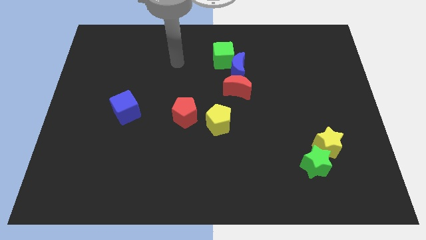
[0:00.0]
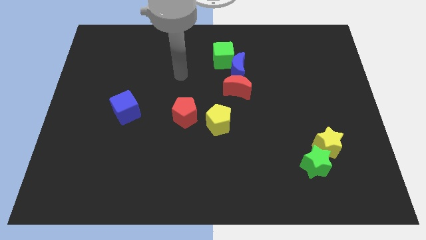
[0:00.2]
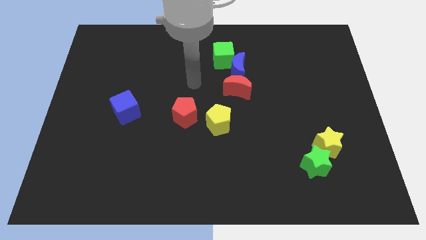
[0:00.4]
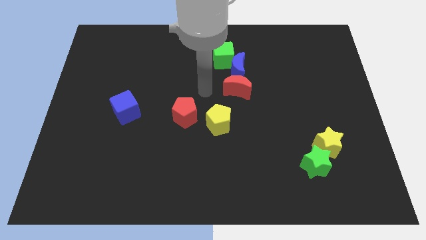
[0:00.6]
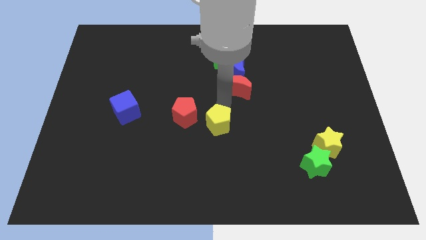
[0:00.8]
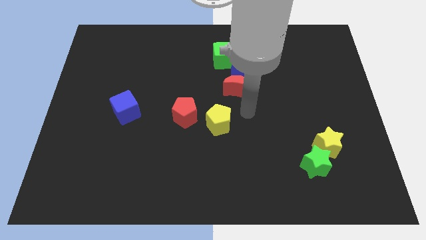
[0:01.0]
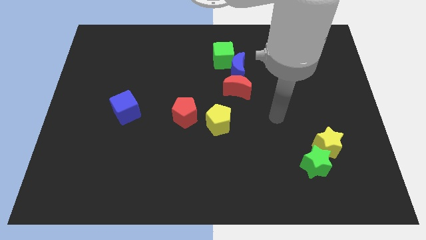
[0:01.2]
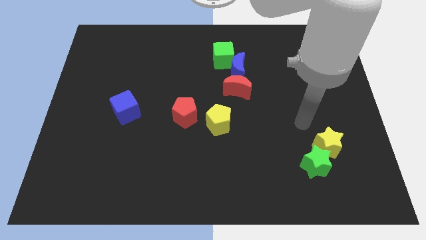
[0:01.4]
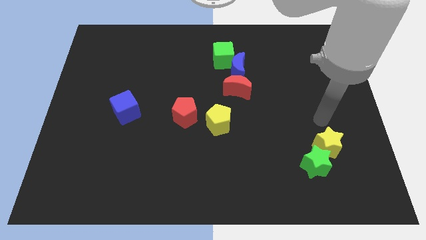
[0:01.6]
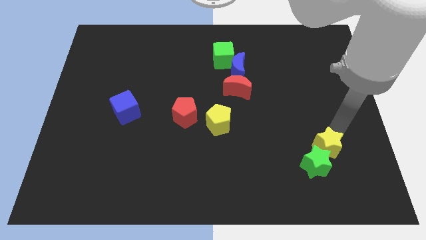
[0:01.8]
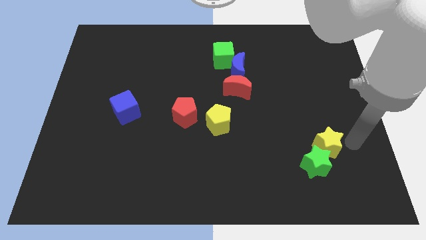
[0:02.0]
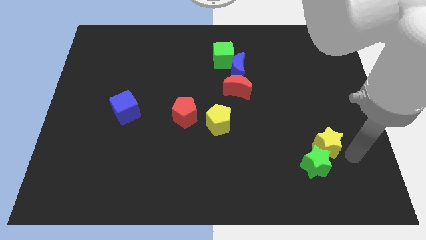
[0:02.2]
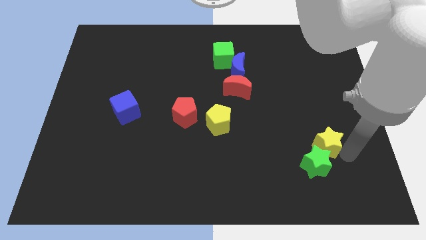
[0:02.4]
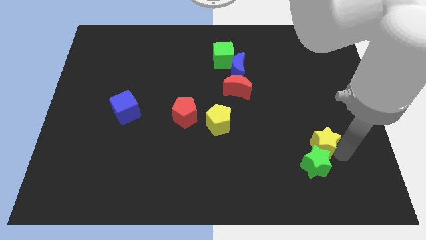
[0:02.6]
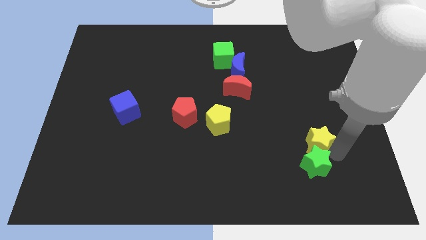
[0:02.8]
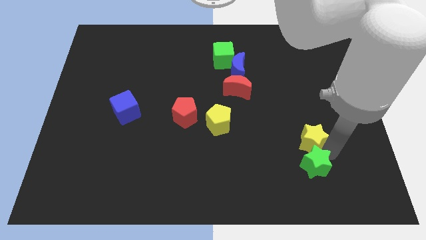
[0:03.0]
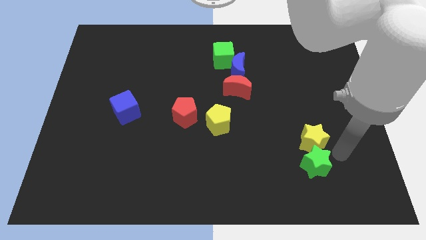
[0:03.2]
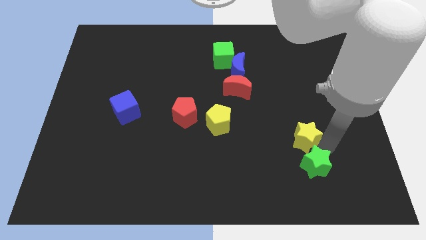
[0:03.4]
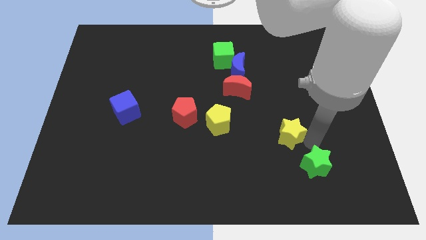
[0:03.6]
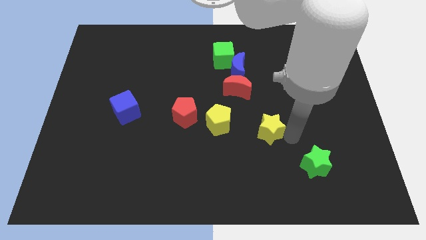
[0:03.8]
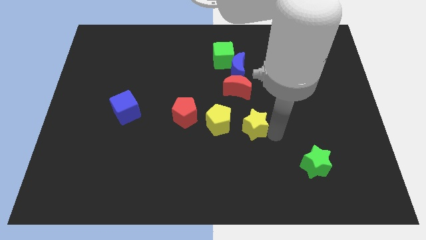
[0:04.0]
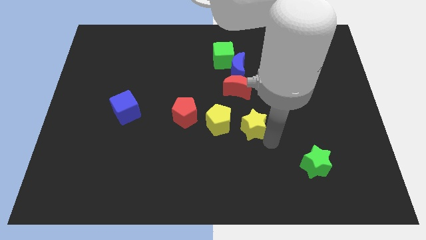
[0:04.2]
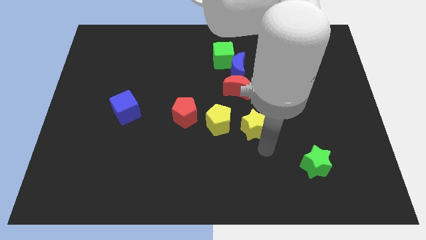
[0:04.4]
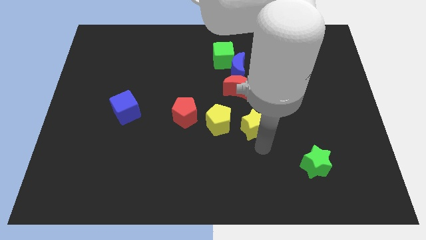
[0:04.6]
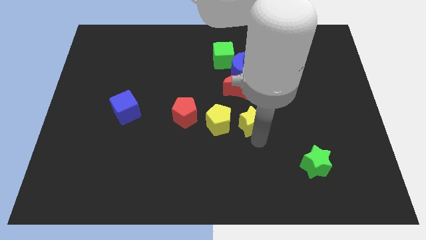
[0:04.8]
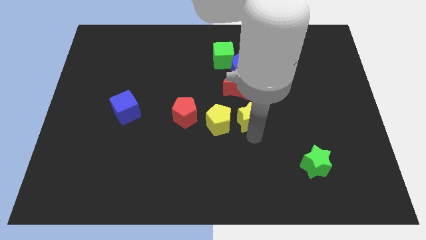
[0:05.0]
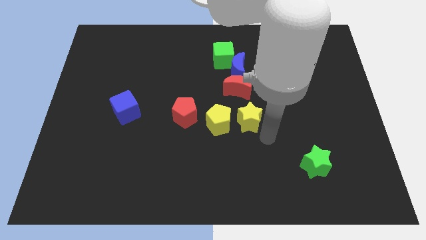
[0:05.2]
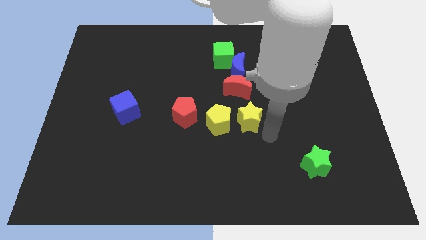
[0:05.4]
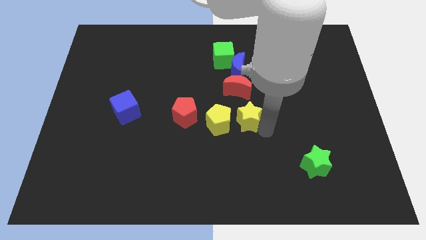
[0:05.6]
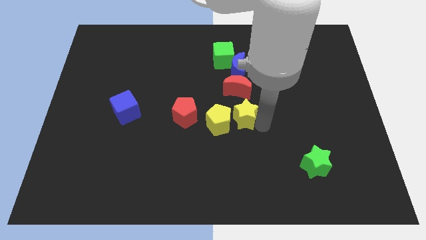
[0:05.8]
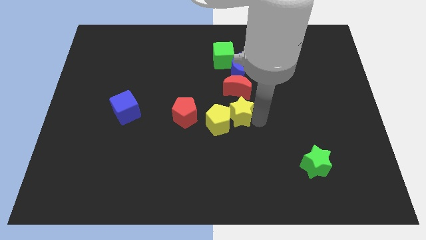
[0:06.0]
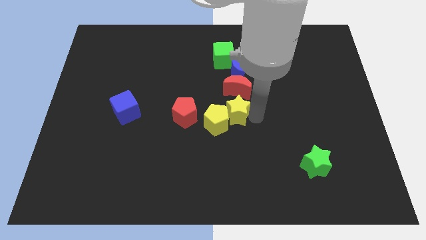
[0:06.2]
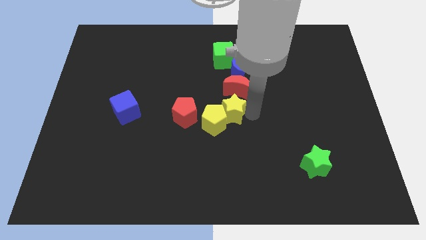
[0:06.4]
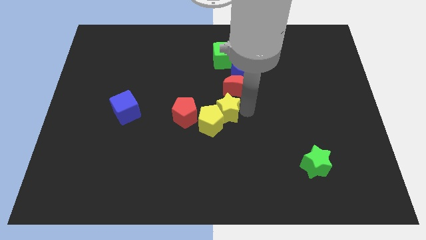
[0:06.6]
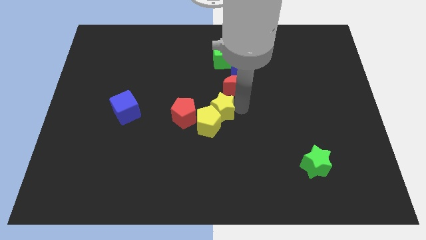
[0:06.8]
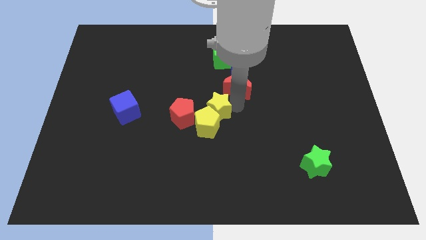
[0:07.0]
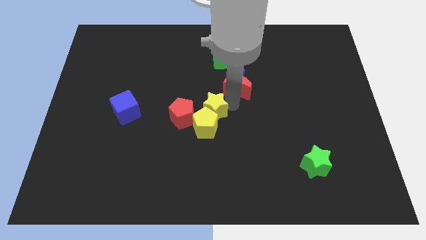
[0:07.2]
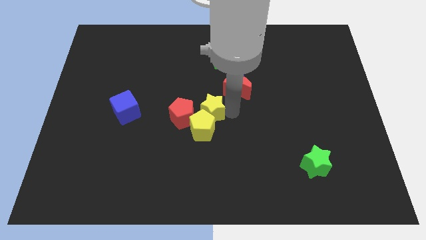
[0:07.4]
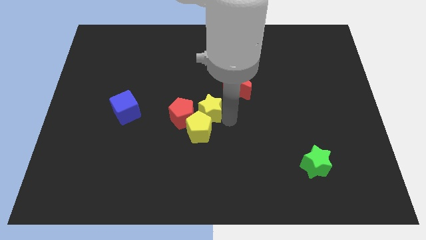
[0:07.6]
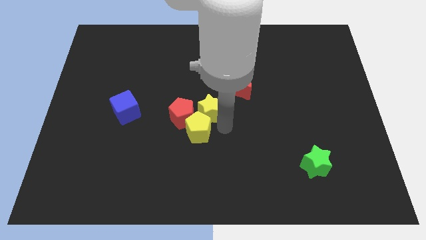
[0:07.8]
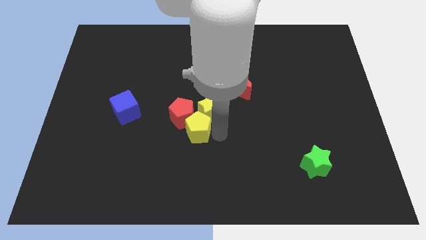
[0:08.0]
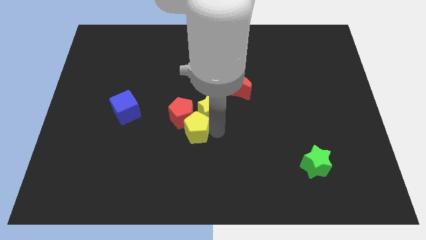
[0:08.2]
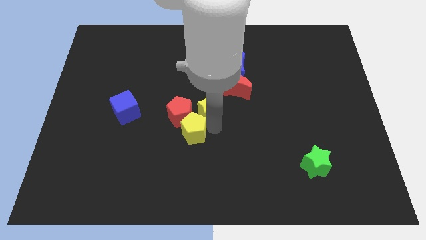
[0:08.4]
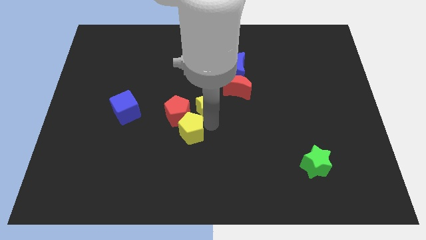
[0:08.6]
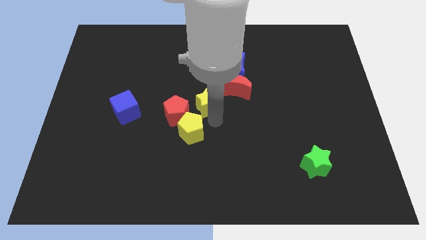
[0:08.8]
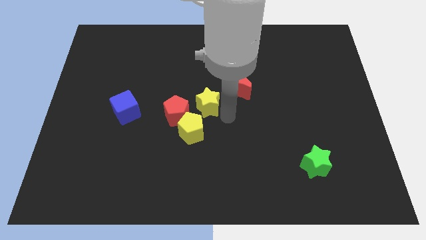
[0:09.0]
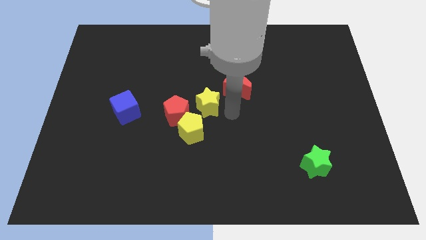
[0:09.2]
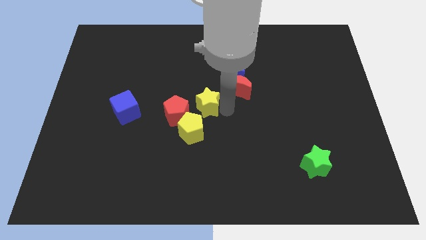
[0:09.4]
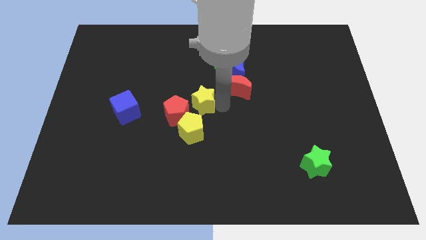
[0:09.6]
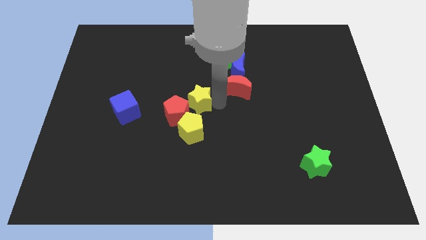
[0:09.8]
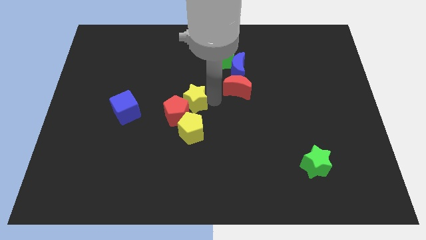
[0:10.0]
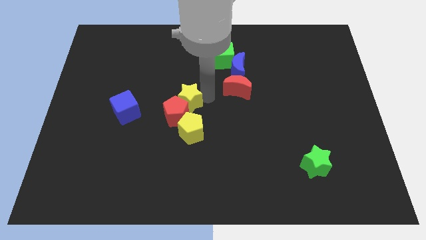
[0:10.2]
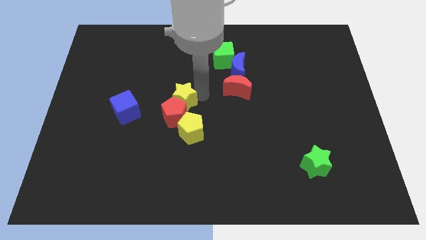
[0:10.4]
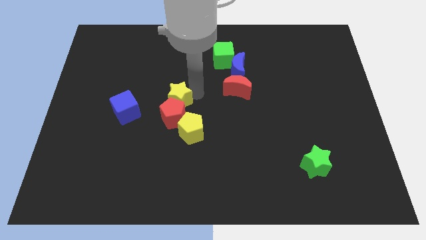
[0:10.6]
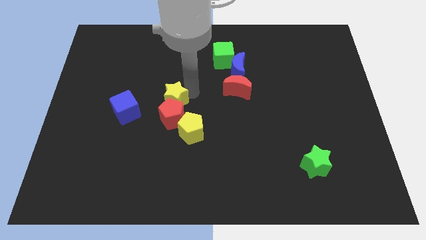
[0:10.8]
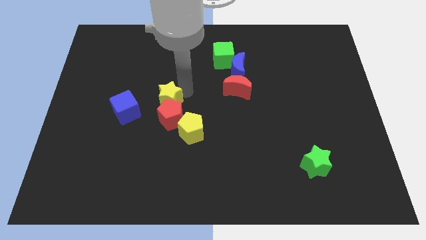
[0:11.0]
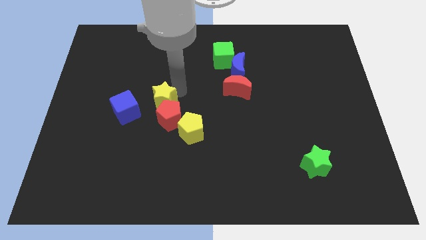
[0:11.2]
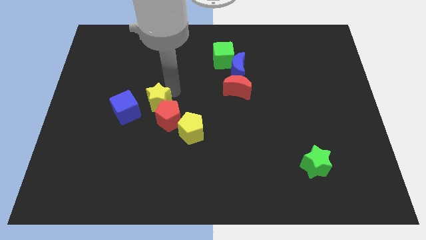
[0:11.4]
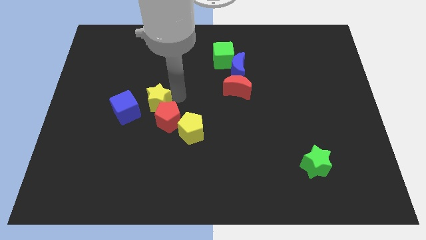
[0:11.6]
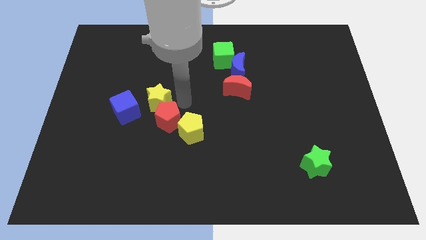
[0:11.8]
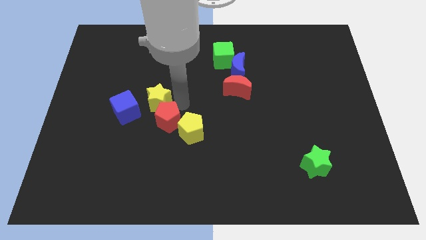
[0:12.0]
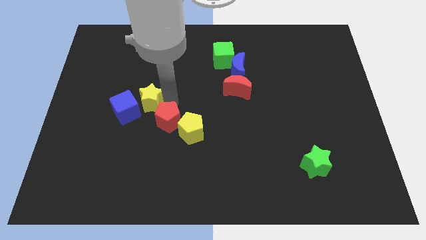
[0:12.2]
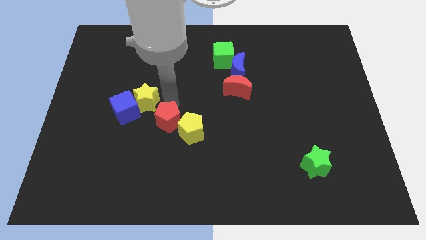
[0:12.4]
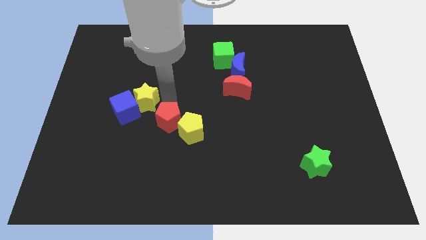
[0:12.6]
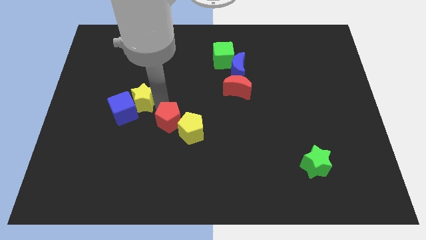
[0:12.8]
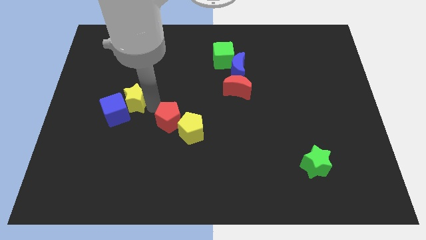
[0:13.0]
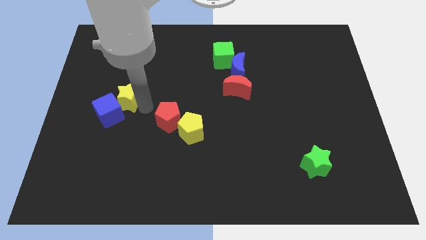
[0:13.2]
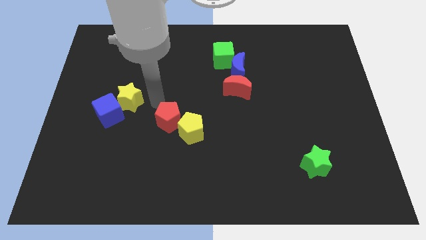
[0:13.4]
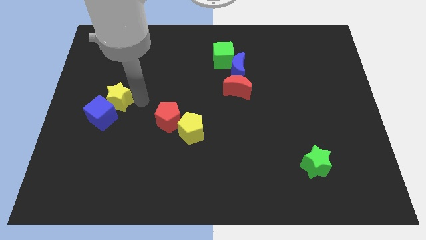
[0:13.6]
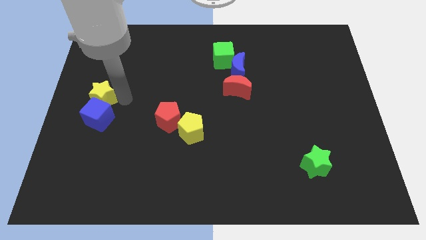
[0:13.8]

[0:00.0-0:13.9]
put the yellow star to the top left side of the blue cube

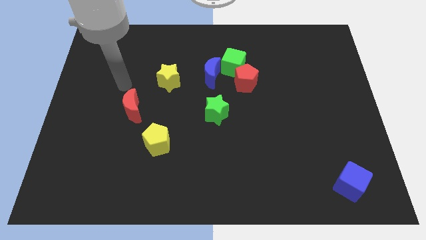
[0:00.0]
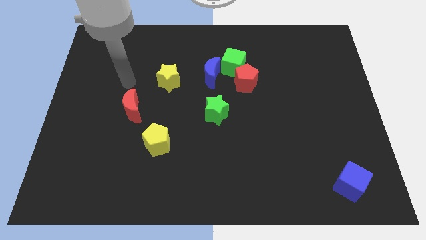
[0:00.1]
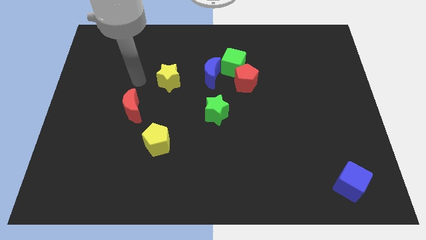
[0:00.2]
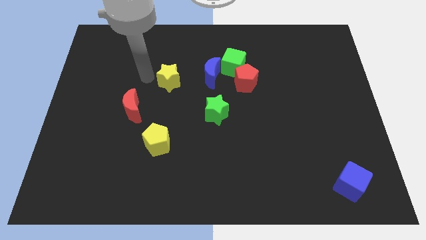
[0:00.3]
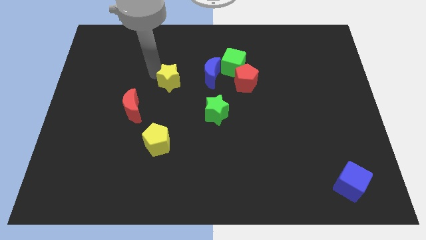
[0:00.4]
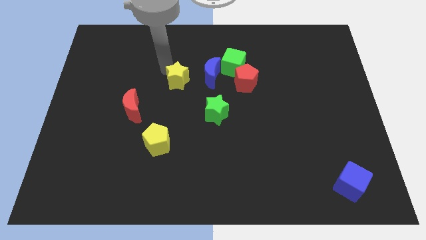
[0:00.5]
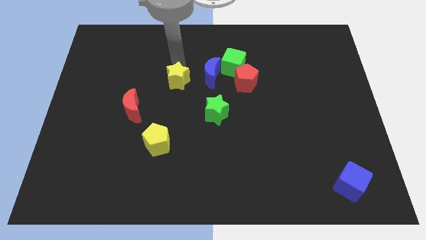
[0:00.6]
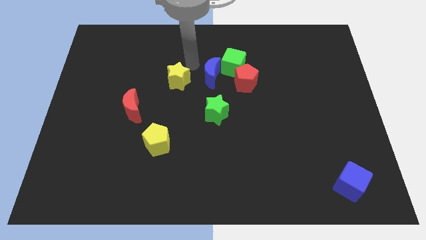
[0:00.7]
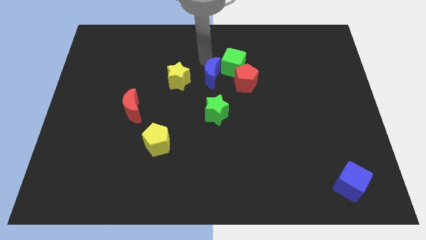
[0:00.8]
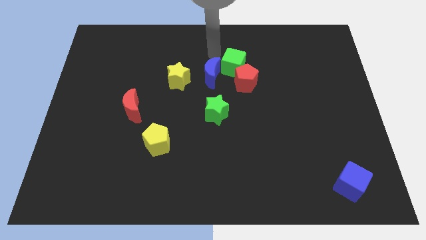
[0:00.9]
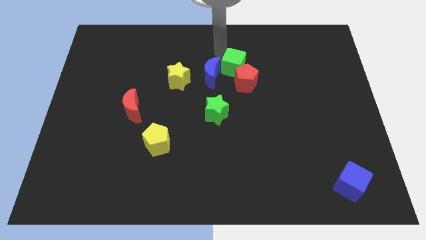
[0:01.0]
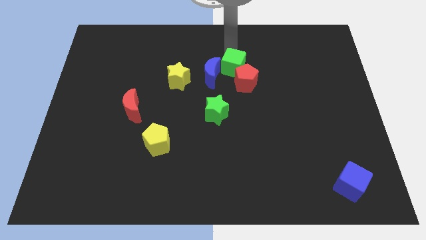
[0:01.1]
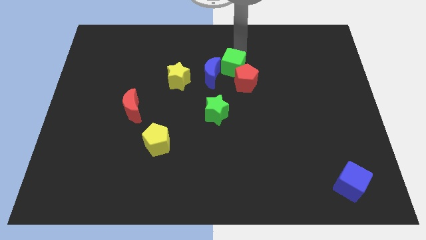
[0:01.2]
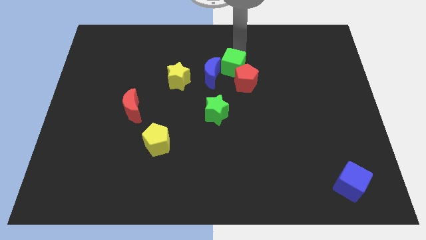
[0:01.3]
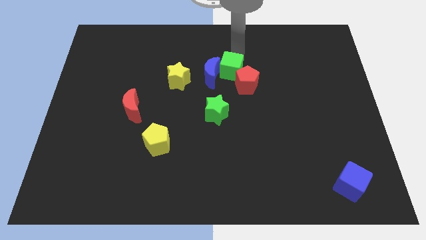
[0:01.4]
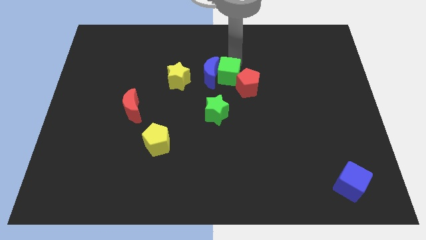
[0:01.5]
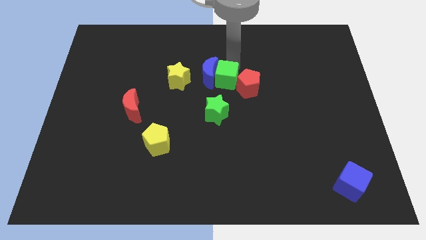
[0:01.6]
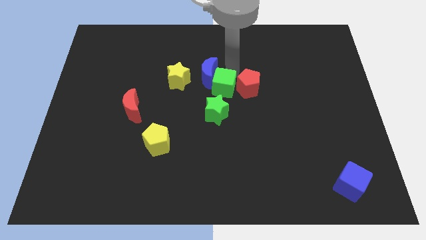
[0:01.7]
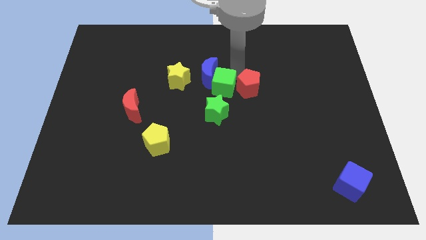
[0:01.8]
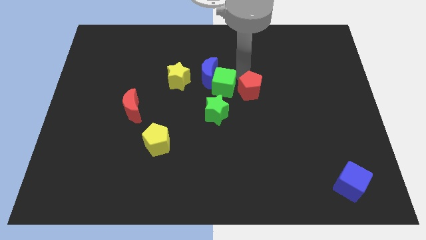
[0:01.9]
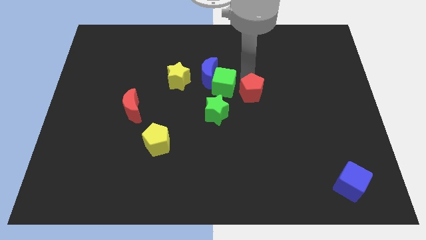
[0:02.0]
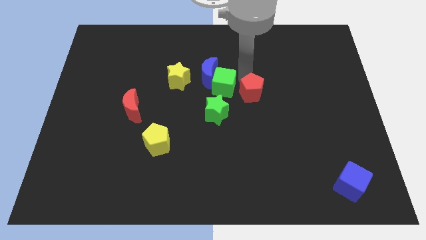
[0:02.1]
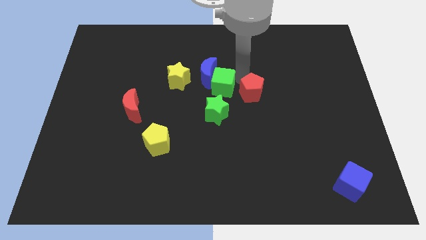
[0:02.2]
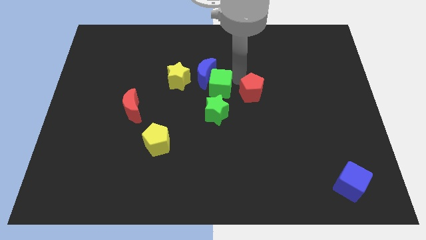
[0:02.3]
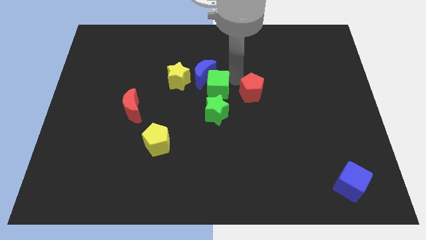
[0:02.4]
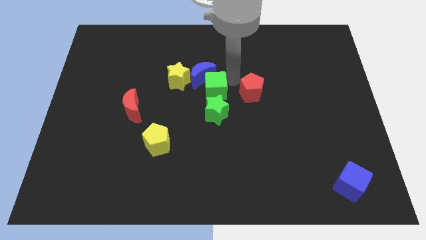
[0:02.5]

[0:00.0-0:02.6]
push the green cube to the top left side of the green star
